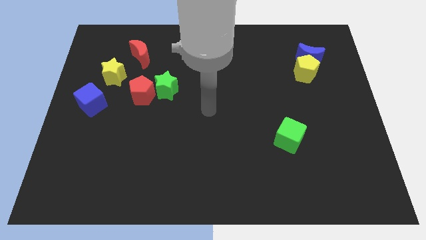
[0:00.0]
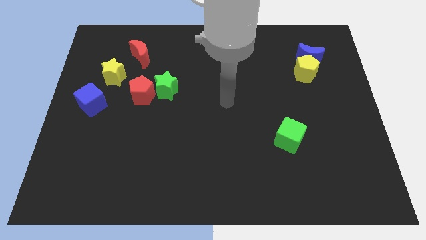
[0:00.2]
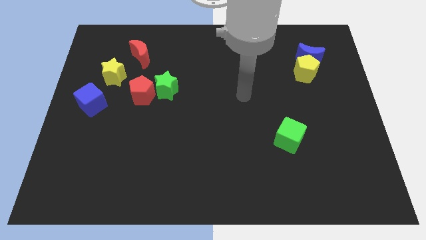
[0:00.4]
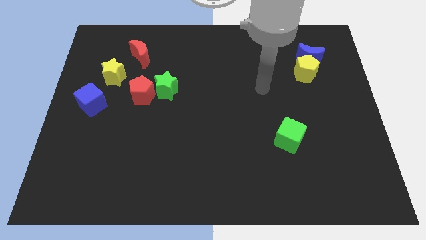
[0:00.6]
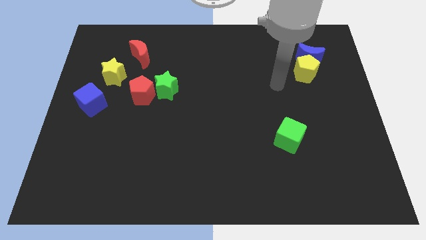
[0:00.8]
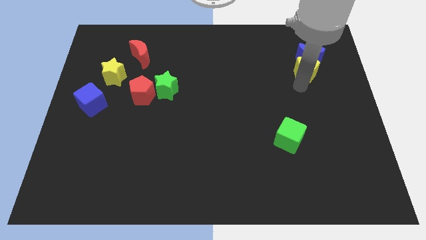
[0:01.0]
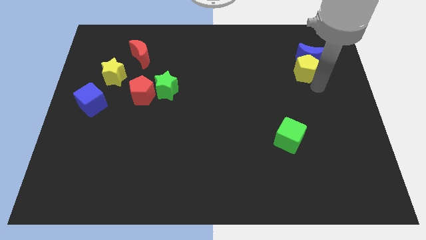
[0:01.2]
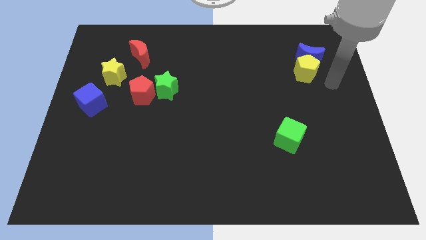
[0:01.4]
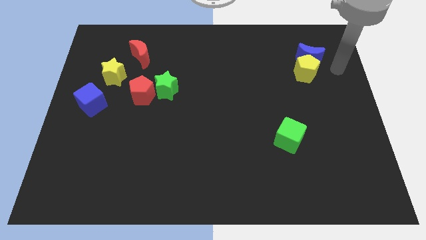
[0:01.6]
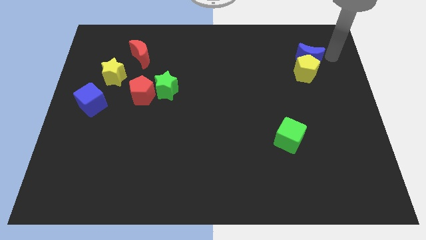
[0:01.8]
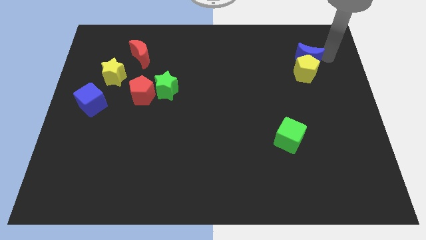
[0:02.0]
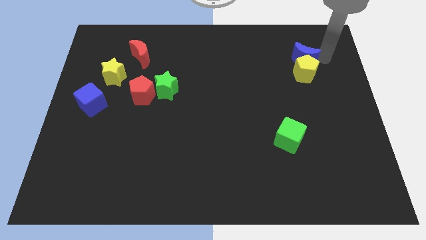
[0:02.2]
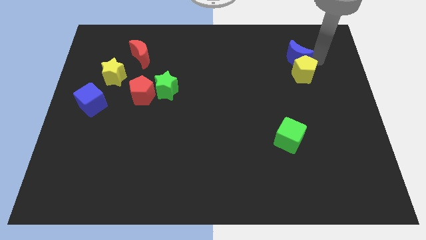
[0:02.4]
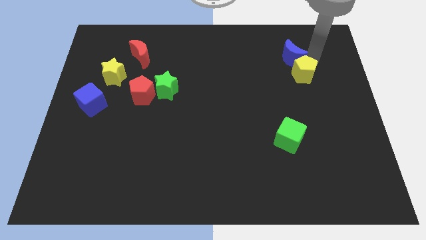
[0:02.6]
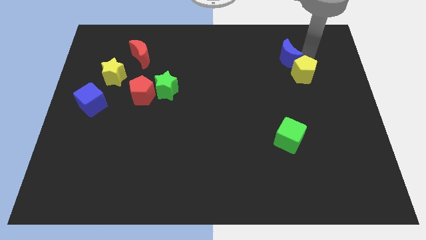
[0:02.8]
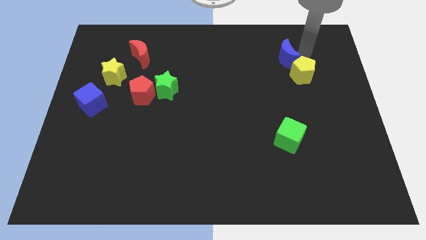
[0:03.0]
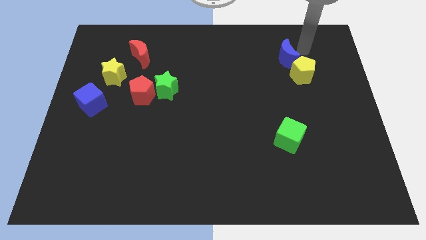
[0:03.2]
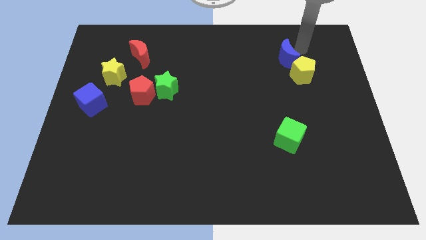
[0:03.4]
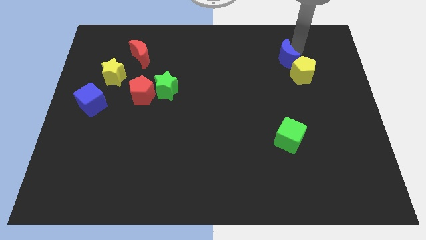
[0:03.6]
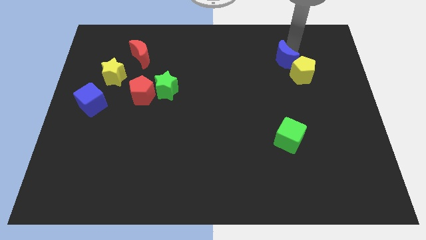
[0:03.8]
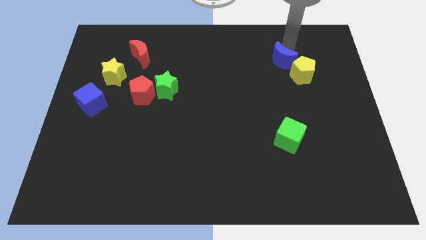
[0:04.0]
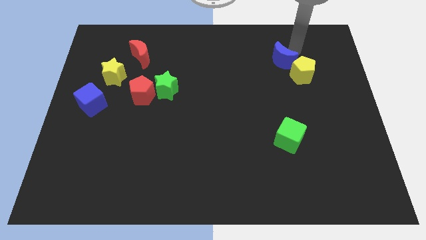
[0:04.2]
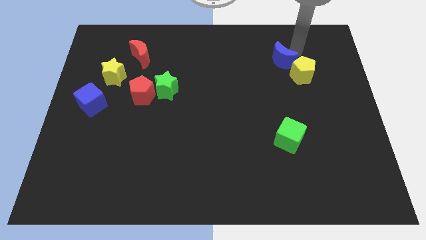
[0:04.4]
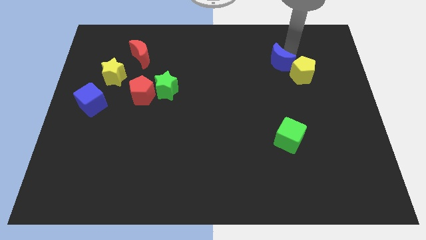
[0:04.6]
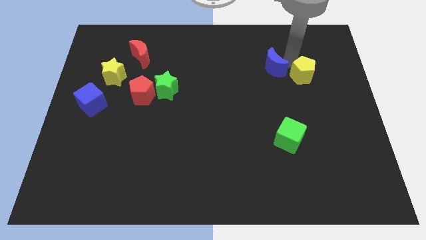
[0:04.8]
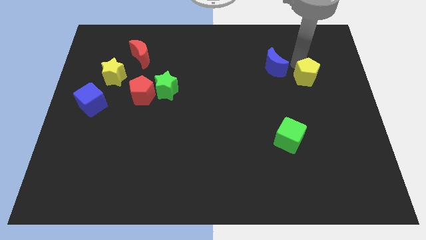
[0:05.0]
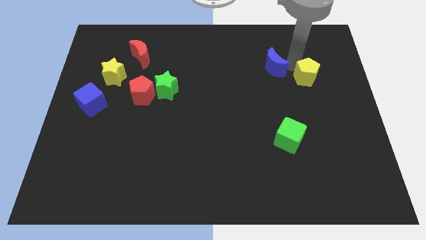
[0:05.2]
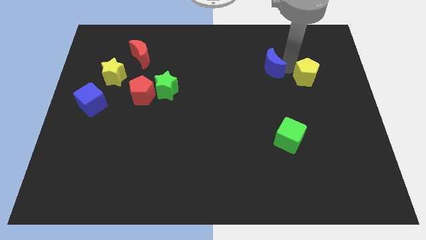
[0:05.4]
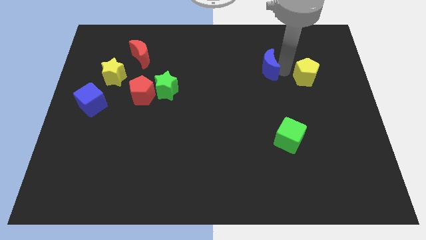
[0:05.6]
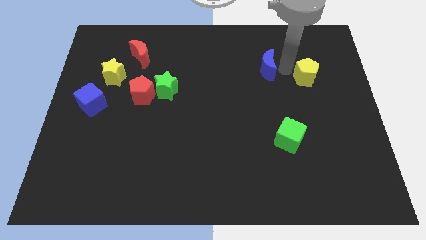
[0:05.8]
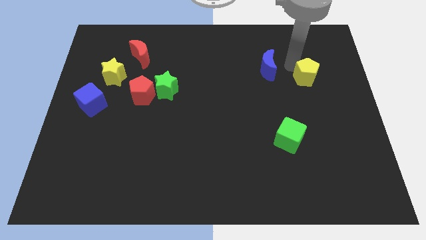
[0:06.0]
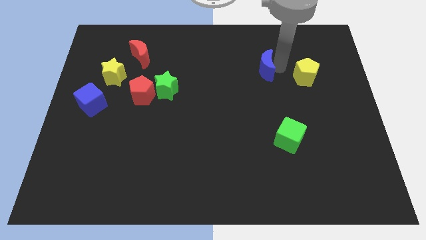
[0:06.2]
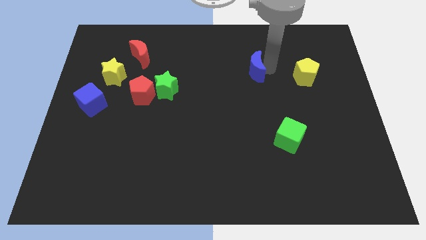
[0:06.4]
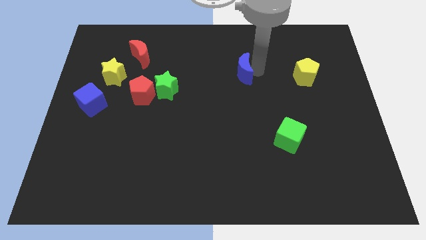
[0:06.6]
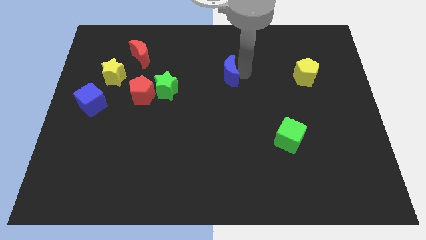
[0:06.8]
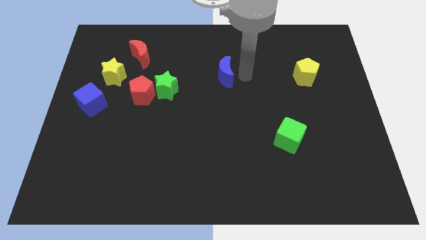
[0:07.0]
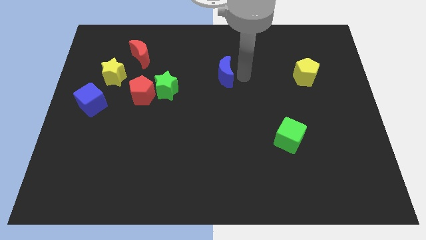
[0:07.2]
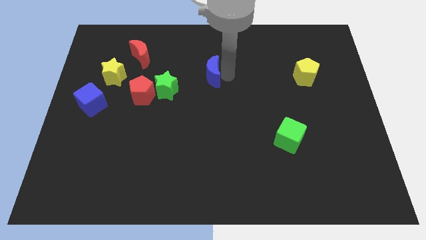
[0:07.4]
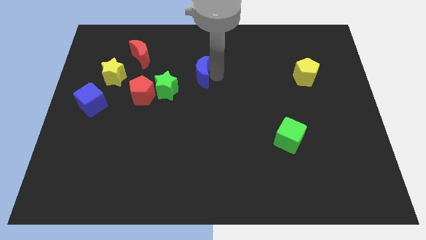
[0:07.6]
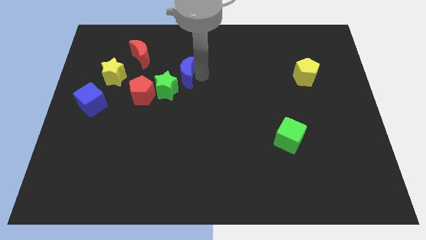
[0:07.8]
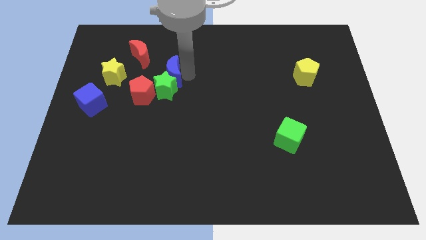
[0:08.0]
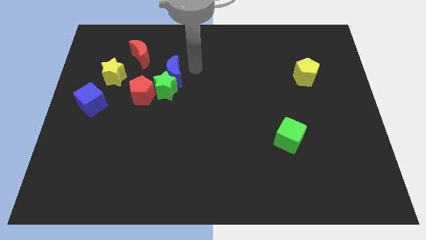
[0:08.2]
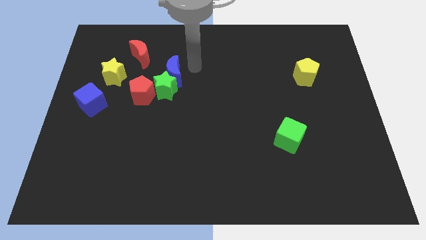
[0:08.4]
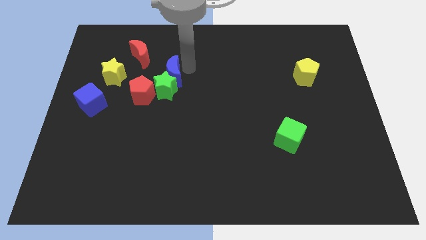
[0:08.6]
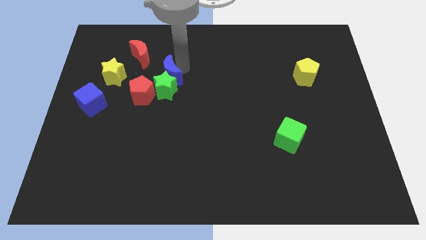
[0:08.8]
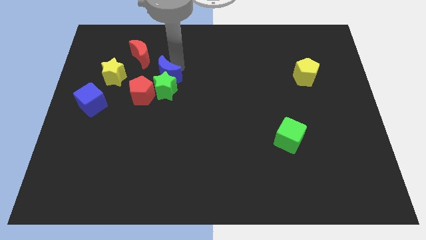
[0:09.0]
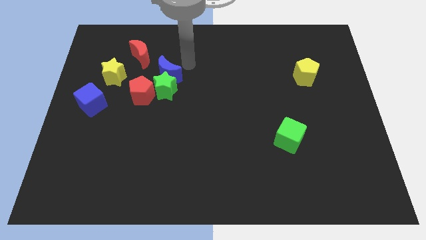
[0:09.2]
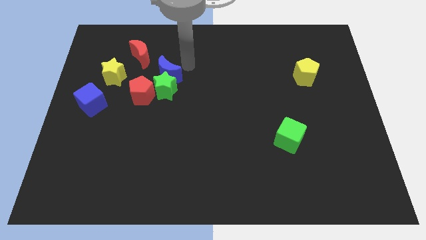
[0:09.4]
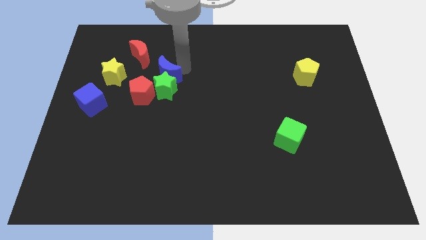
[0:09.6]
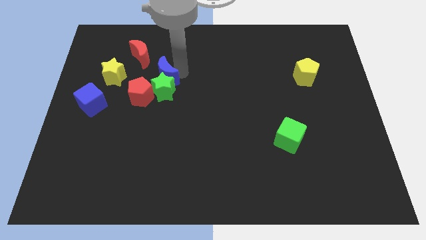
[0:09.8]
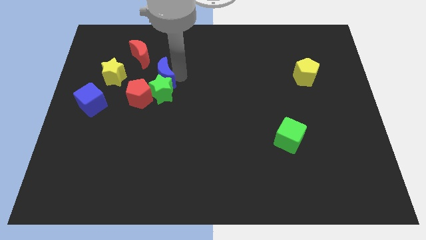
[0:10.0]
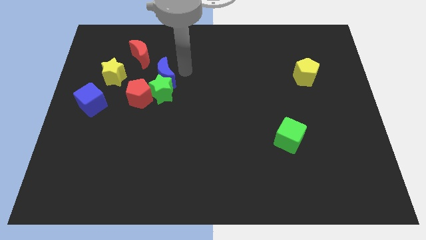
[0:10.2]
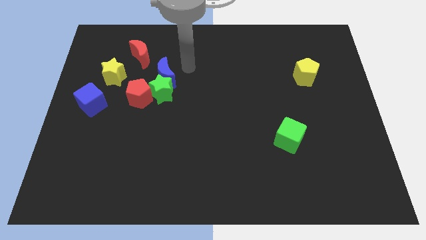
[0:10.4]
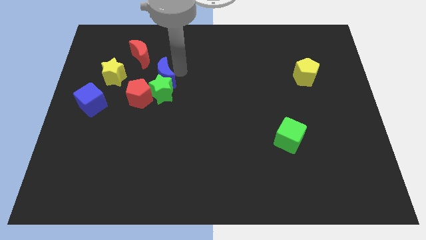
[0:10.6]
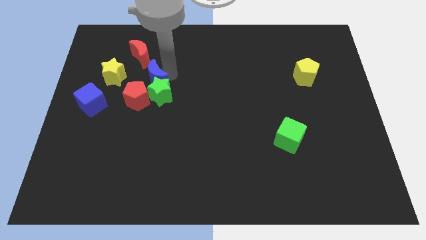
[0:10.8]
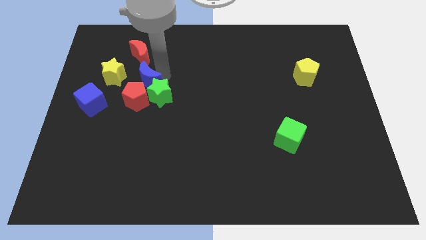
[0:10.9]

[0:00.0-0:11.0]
move the blue moon towards the red pentagon

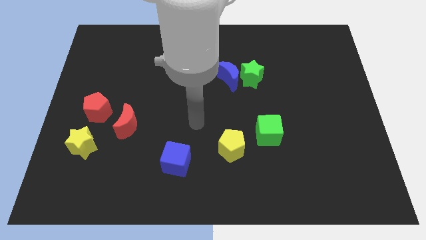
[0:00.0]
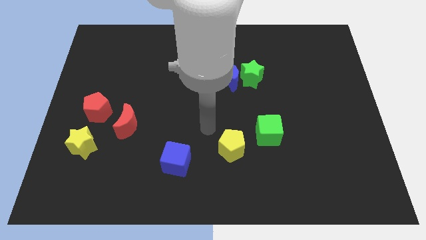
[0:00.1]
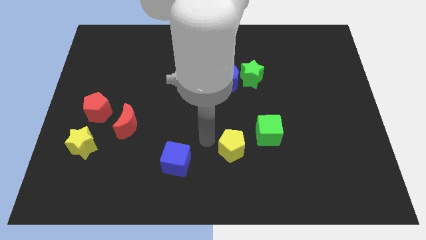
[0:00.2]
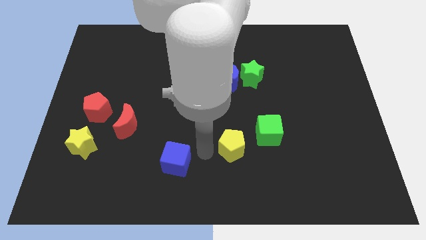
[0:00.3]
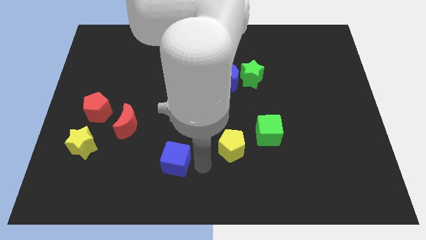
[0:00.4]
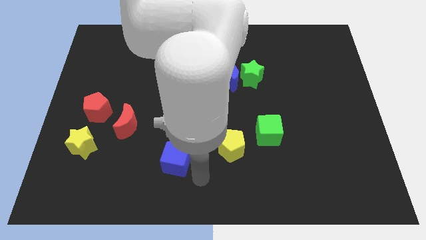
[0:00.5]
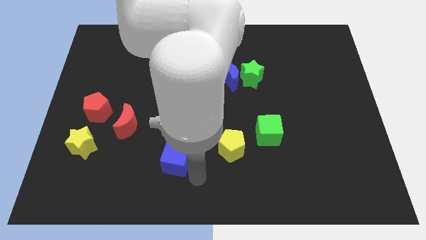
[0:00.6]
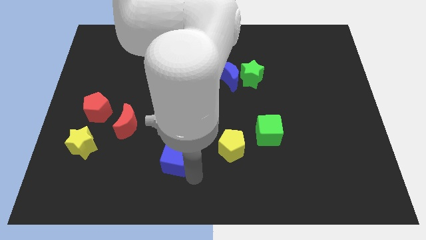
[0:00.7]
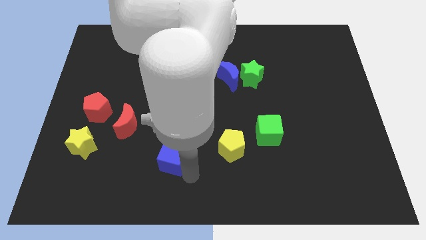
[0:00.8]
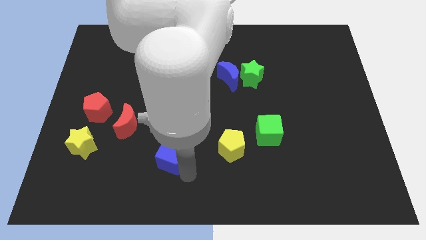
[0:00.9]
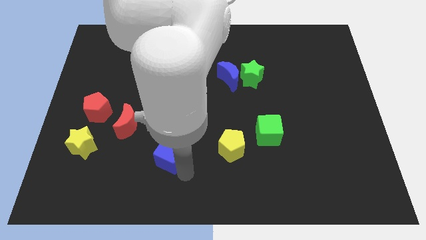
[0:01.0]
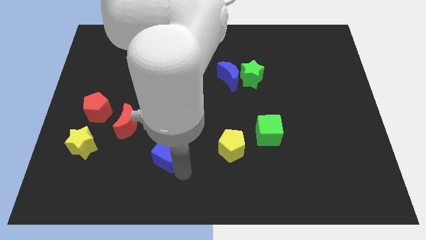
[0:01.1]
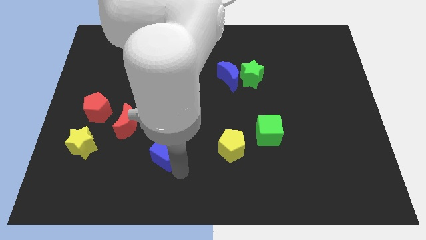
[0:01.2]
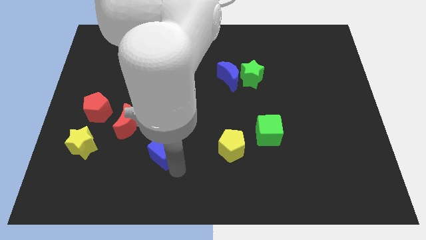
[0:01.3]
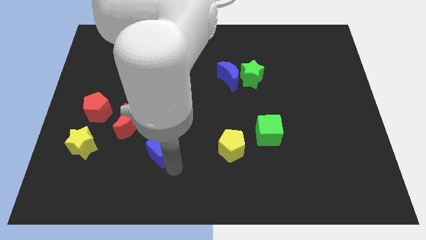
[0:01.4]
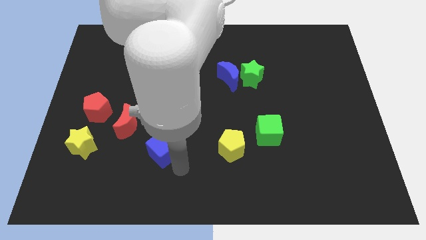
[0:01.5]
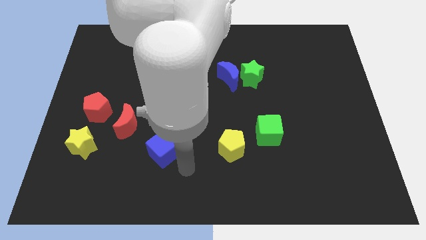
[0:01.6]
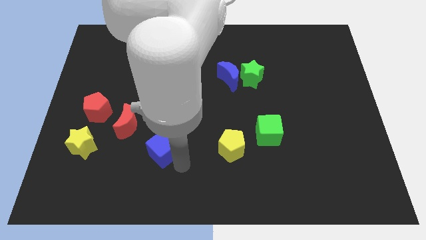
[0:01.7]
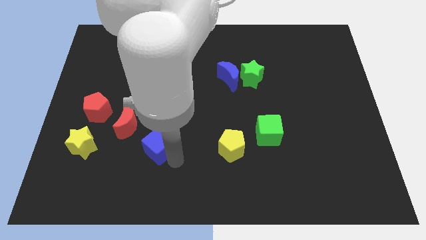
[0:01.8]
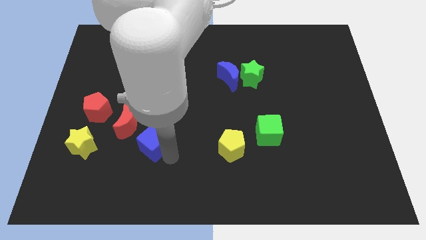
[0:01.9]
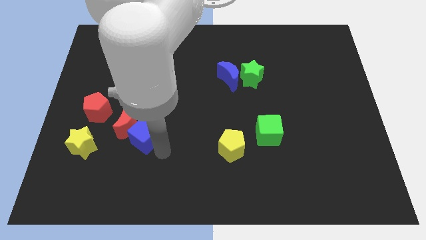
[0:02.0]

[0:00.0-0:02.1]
put the blue cube close to the red moon
